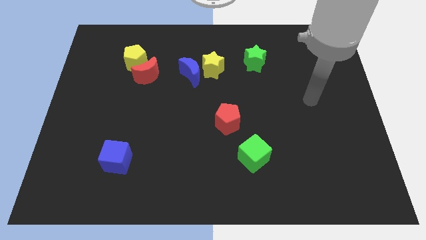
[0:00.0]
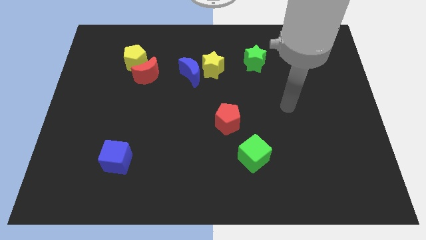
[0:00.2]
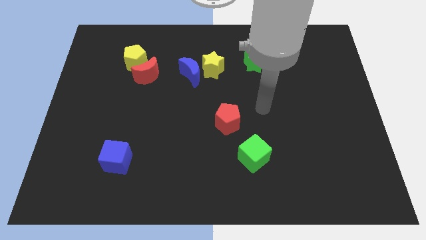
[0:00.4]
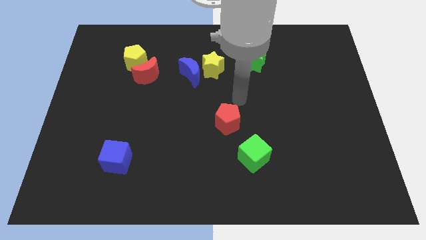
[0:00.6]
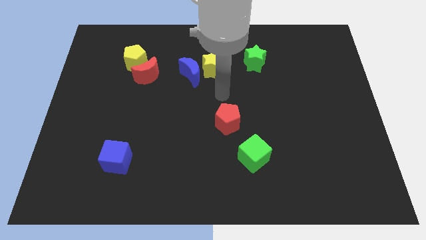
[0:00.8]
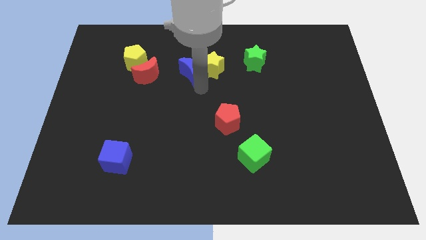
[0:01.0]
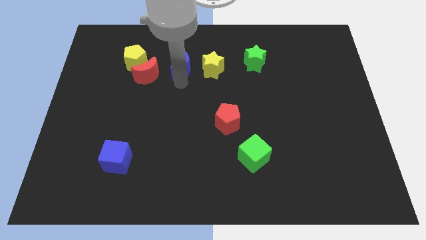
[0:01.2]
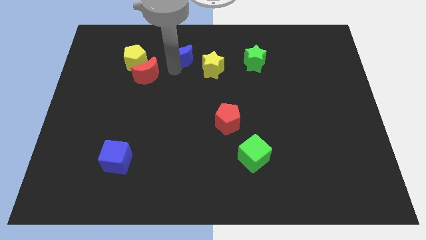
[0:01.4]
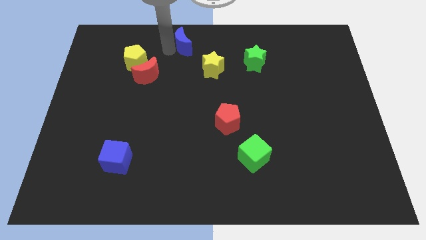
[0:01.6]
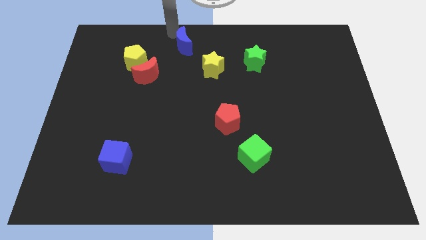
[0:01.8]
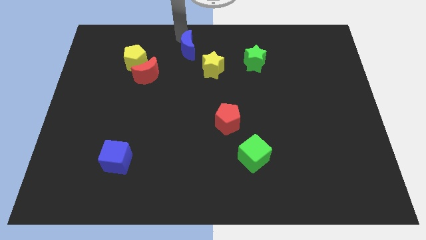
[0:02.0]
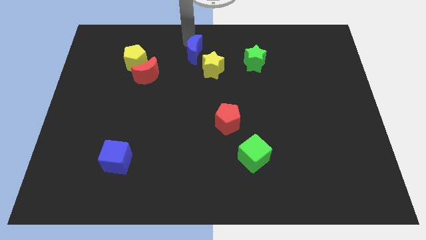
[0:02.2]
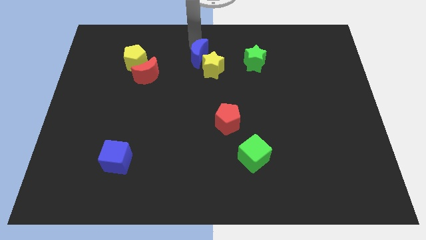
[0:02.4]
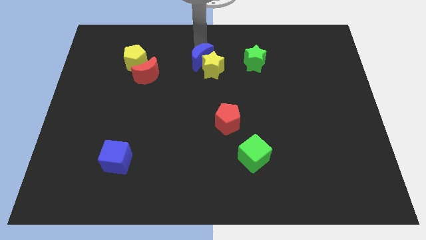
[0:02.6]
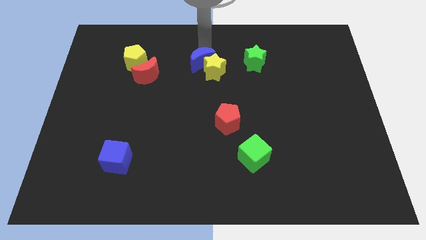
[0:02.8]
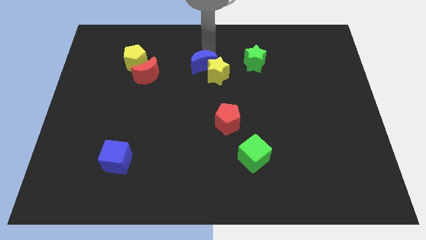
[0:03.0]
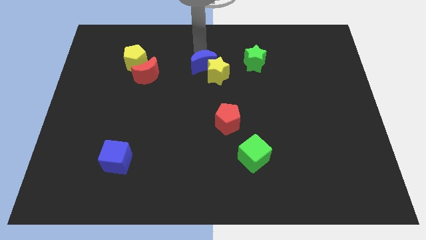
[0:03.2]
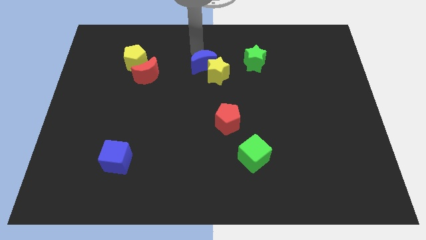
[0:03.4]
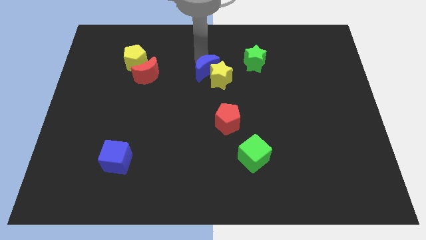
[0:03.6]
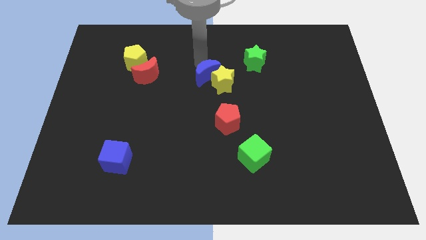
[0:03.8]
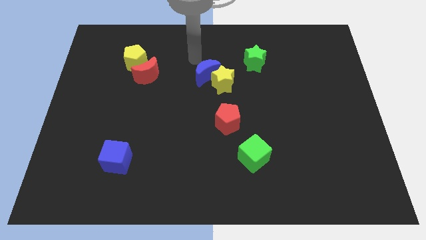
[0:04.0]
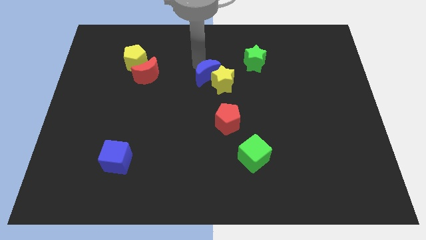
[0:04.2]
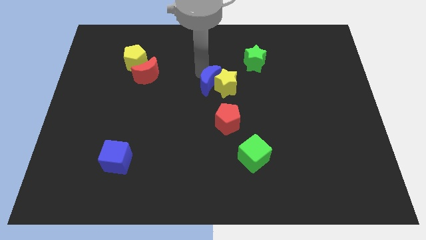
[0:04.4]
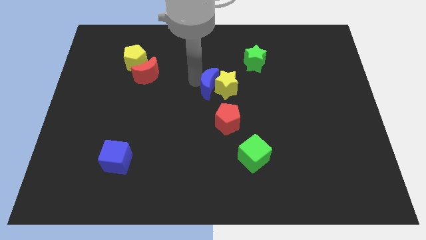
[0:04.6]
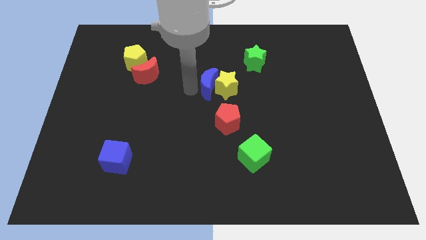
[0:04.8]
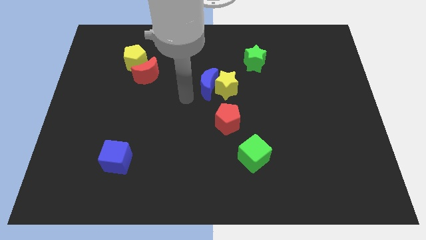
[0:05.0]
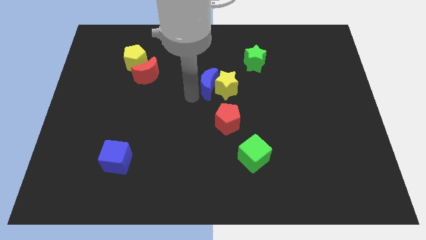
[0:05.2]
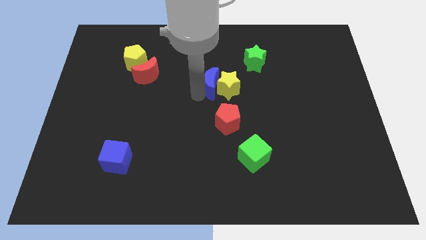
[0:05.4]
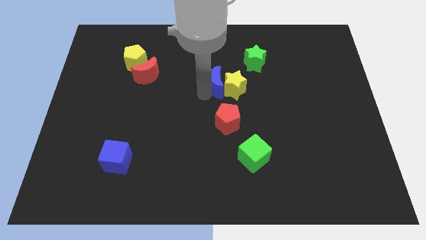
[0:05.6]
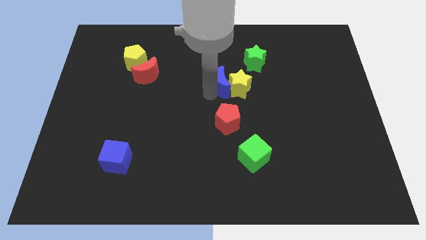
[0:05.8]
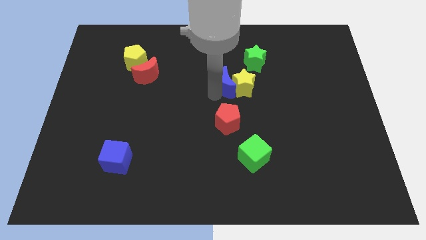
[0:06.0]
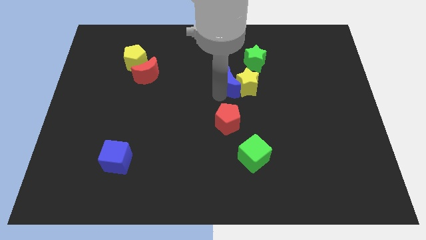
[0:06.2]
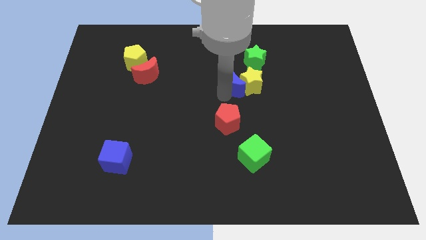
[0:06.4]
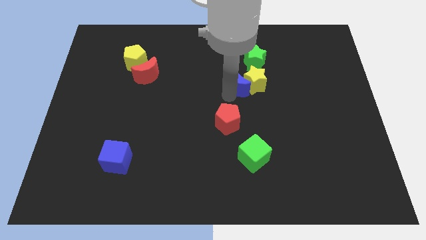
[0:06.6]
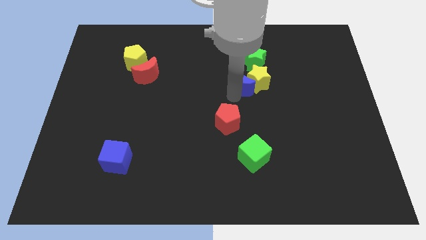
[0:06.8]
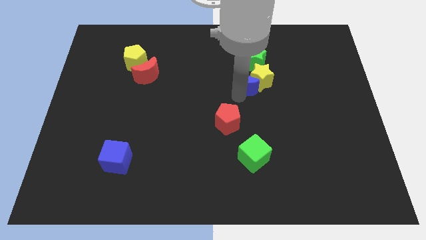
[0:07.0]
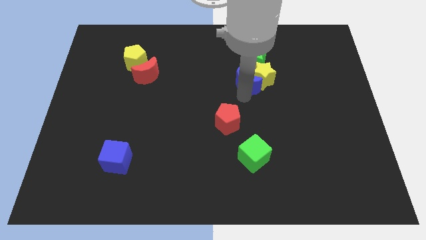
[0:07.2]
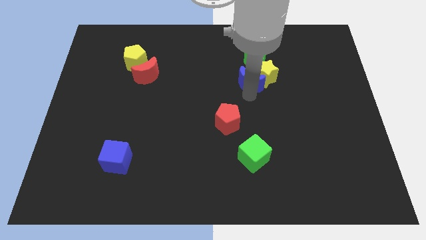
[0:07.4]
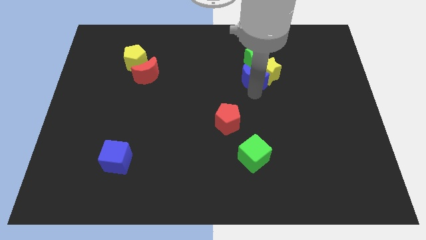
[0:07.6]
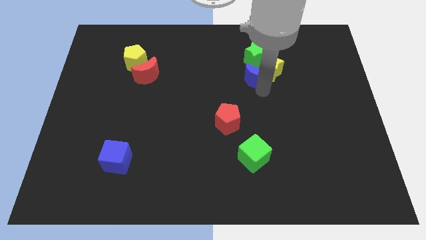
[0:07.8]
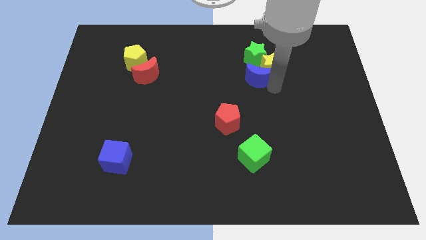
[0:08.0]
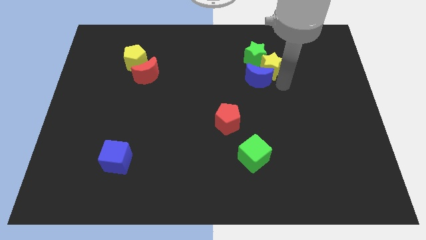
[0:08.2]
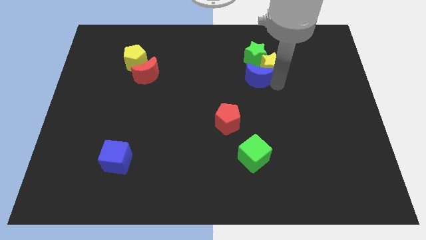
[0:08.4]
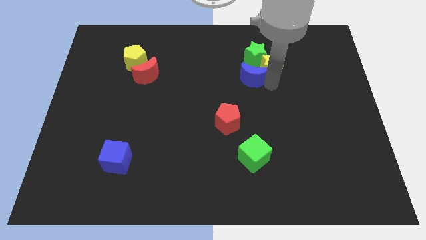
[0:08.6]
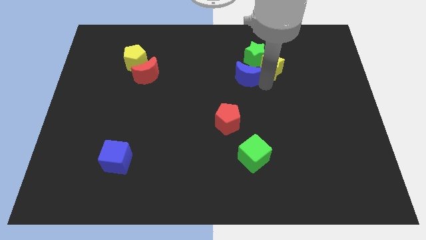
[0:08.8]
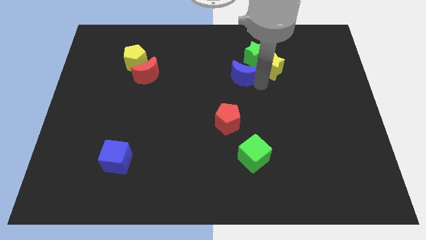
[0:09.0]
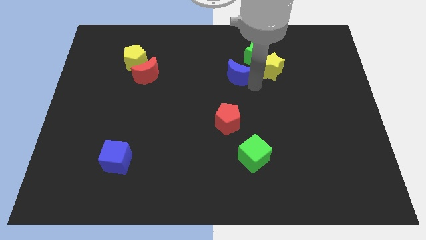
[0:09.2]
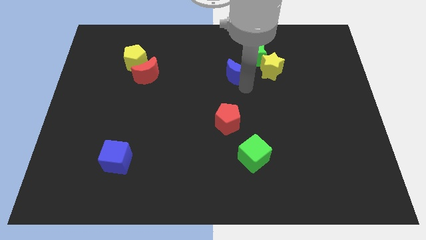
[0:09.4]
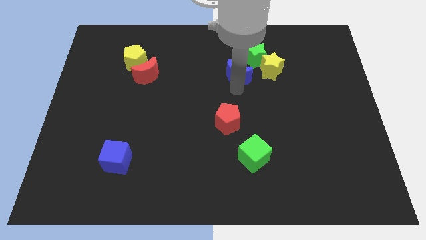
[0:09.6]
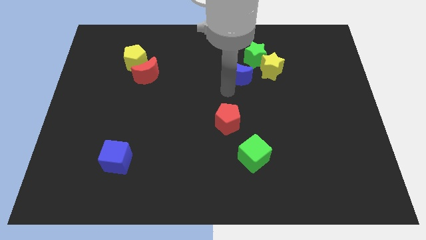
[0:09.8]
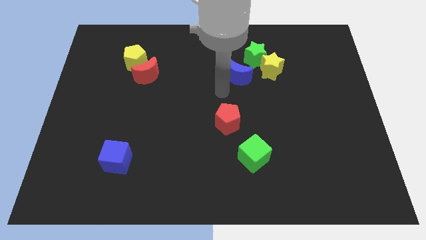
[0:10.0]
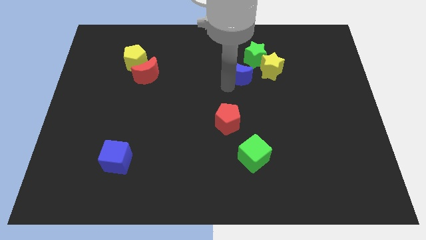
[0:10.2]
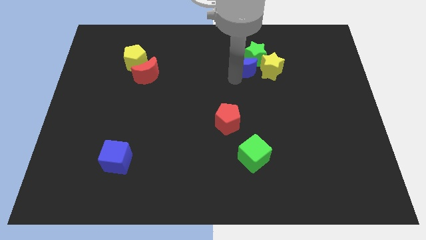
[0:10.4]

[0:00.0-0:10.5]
put the blue moon to the green star

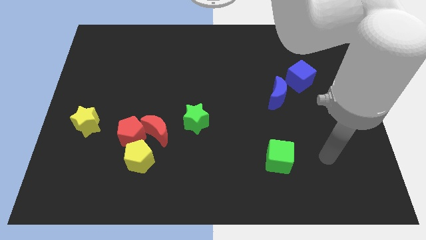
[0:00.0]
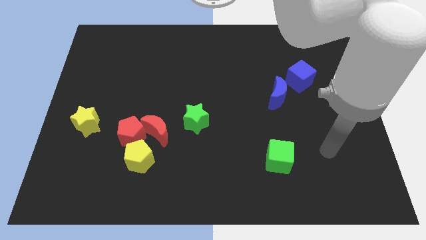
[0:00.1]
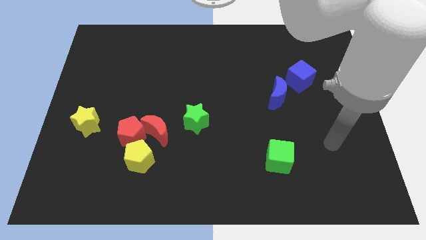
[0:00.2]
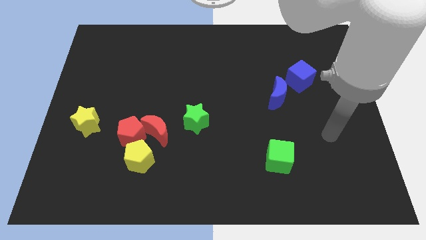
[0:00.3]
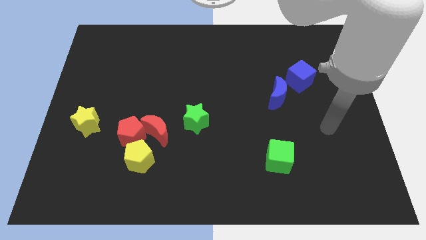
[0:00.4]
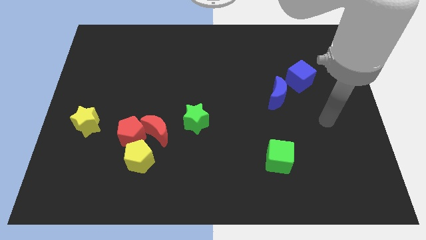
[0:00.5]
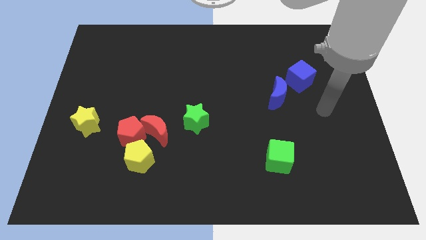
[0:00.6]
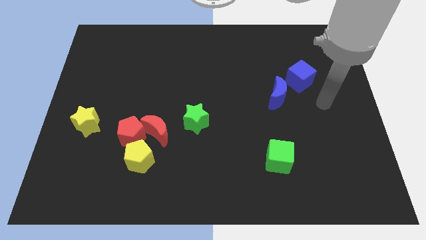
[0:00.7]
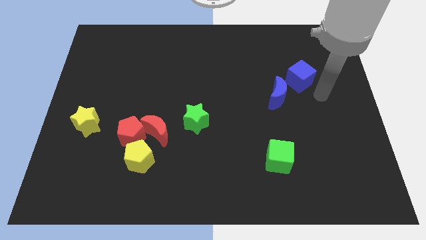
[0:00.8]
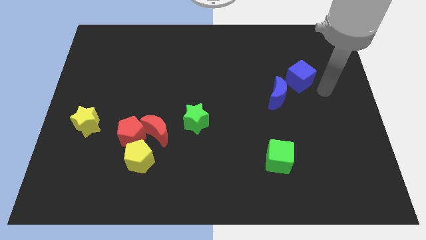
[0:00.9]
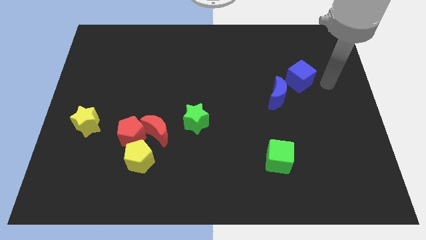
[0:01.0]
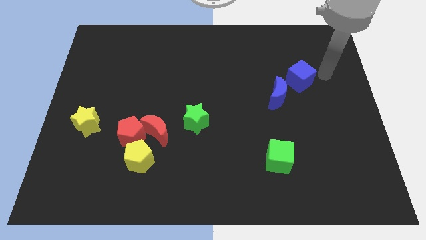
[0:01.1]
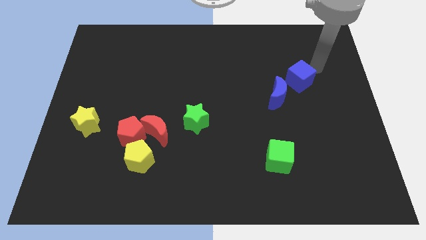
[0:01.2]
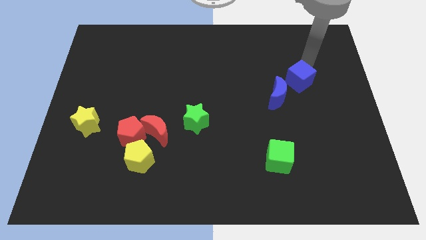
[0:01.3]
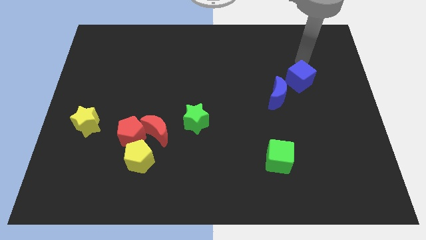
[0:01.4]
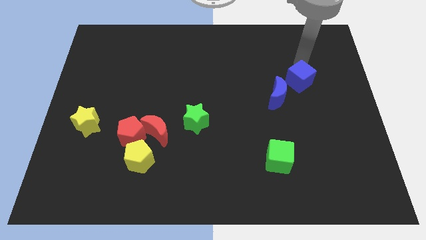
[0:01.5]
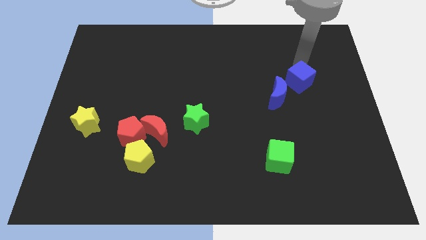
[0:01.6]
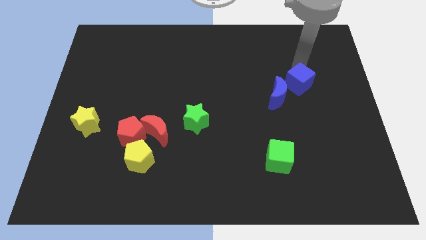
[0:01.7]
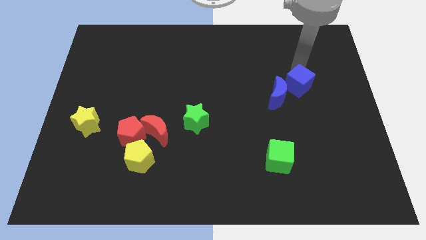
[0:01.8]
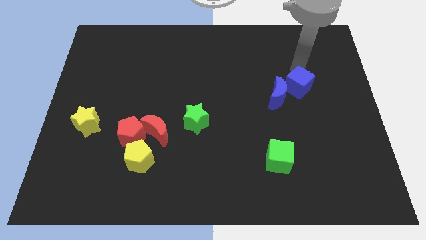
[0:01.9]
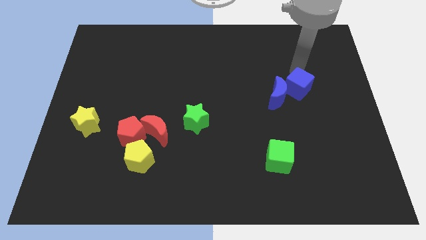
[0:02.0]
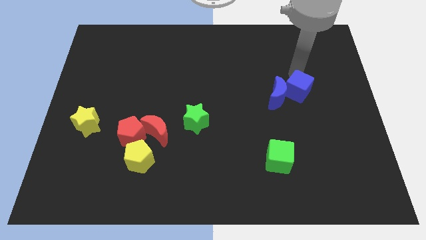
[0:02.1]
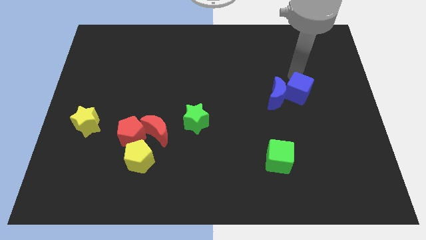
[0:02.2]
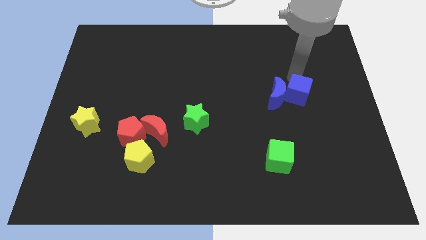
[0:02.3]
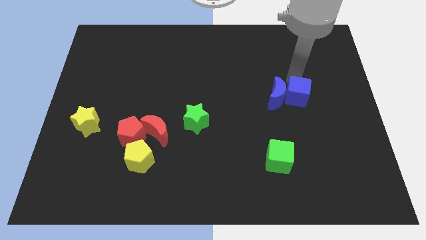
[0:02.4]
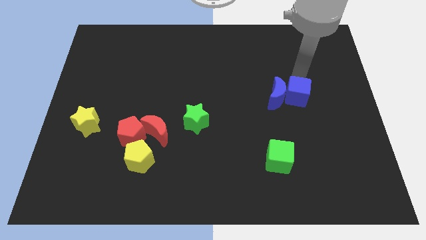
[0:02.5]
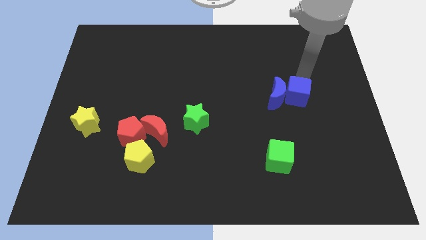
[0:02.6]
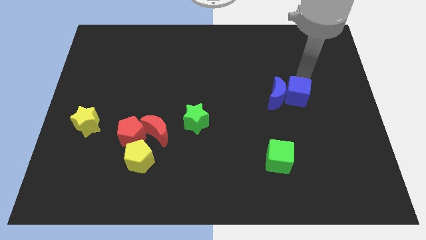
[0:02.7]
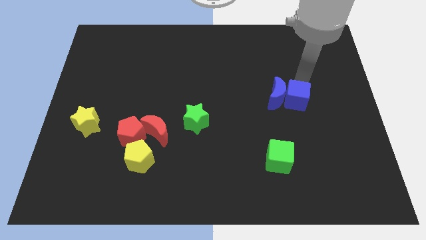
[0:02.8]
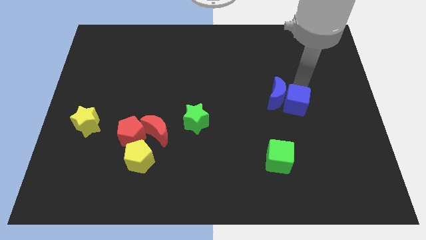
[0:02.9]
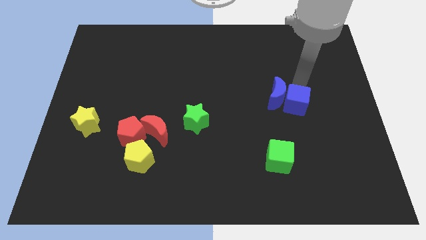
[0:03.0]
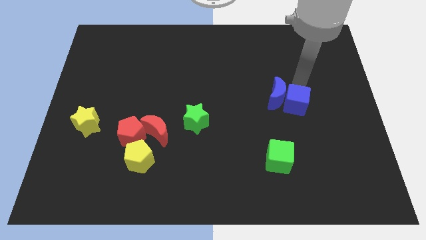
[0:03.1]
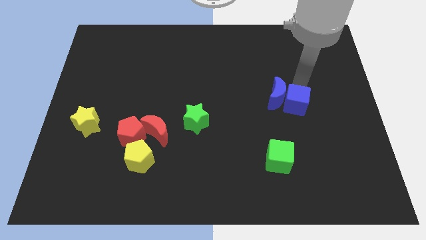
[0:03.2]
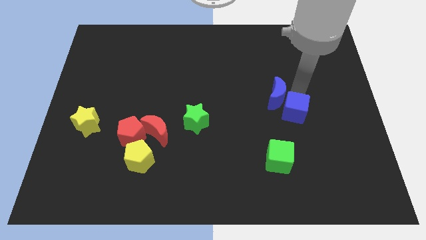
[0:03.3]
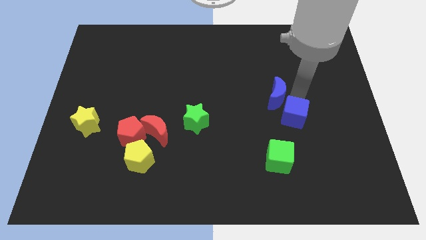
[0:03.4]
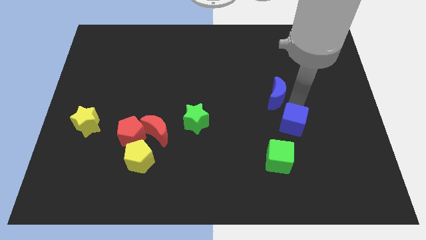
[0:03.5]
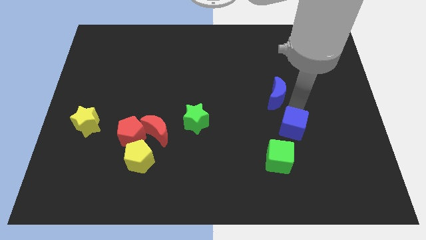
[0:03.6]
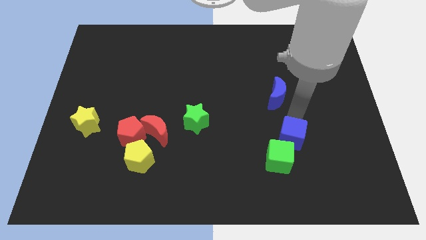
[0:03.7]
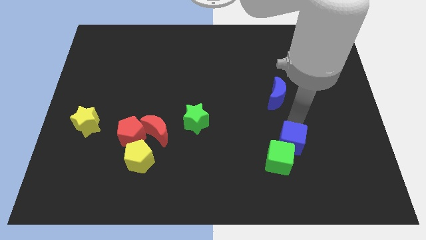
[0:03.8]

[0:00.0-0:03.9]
push the blue cube towards the green cube
